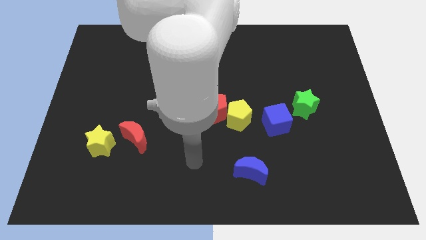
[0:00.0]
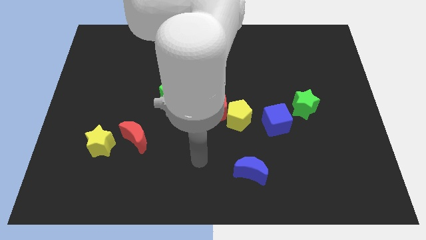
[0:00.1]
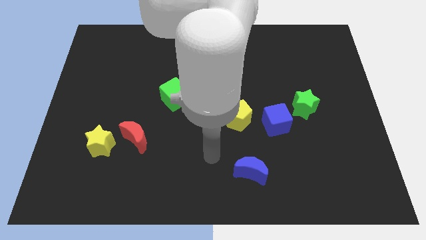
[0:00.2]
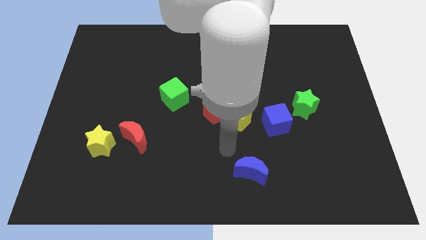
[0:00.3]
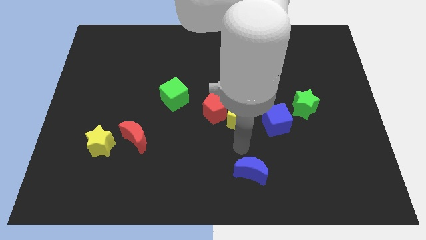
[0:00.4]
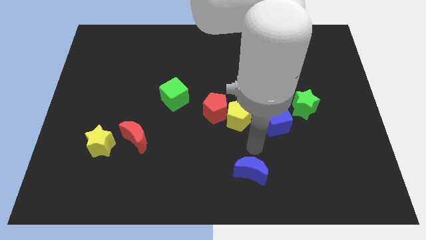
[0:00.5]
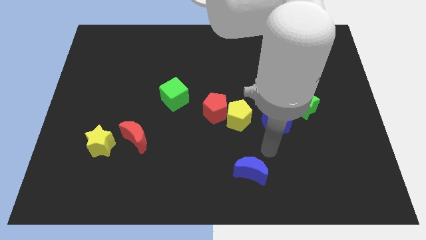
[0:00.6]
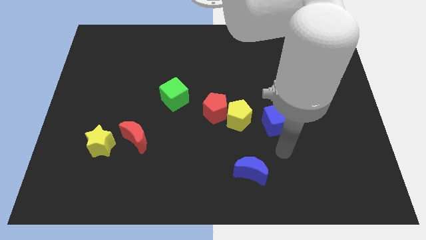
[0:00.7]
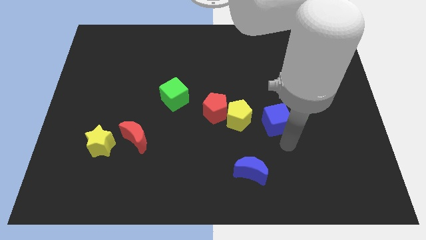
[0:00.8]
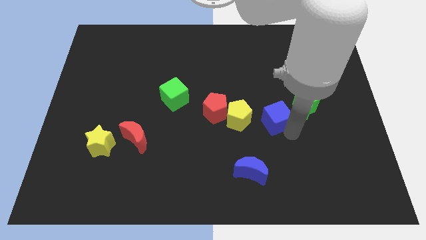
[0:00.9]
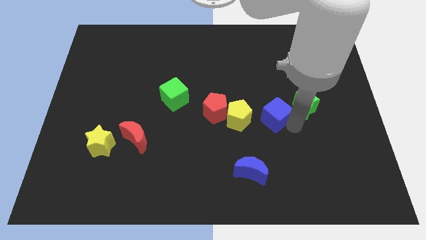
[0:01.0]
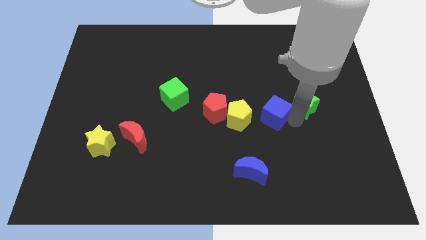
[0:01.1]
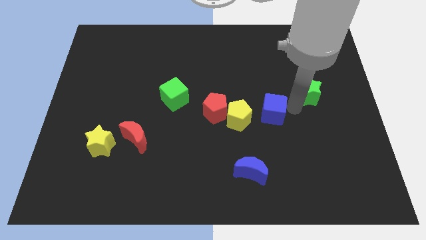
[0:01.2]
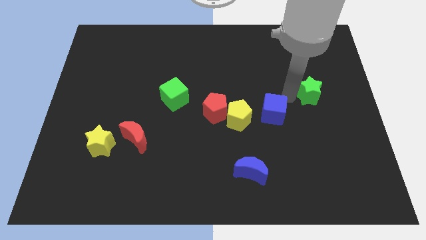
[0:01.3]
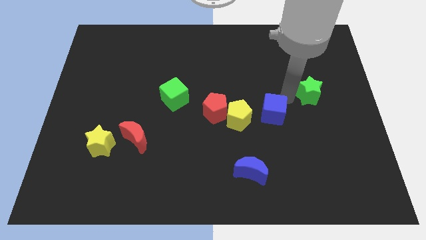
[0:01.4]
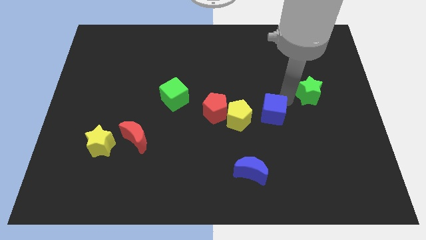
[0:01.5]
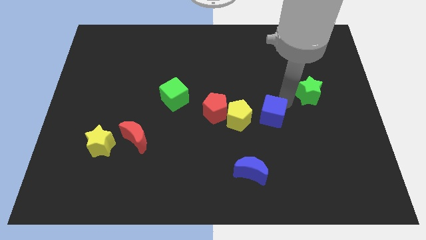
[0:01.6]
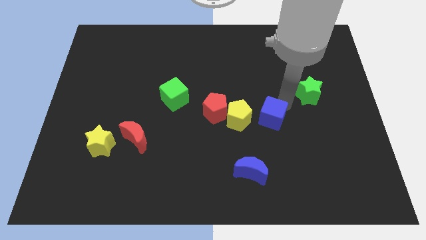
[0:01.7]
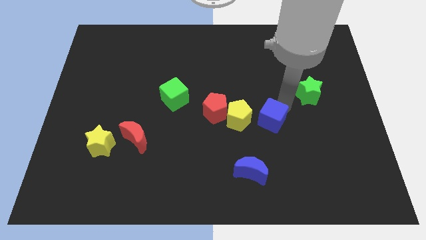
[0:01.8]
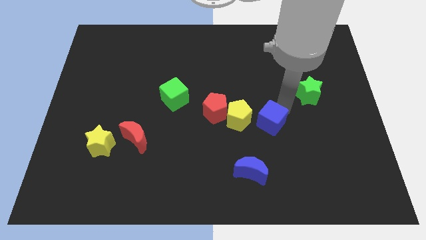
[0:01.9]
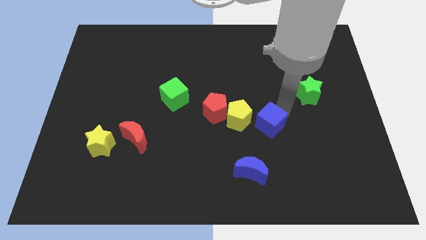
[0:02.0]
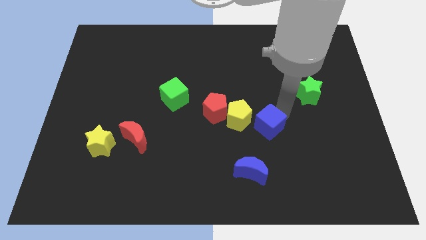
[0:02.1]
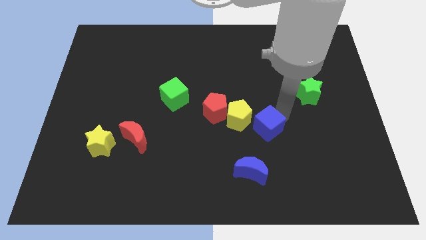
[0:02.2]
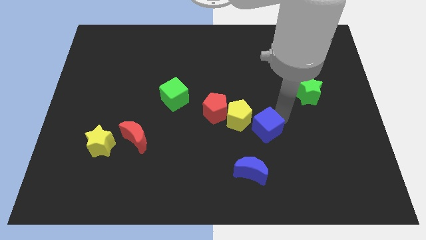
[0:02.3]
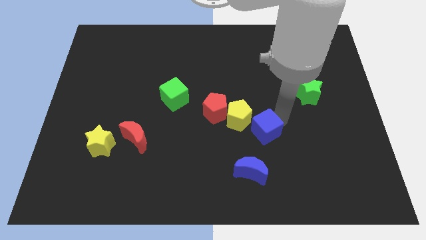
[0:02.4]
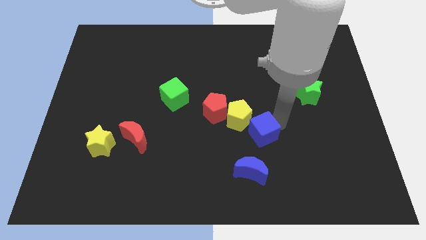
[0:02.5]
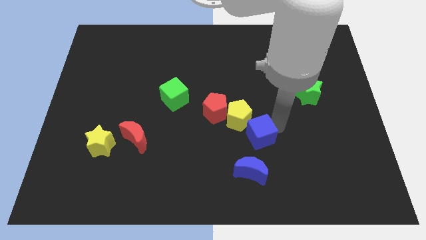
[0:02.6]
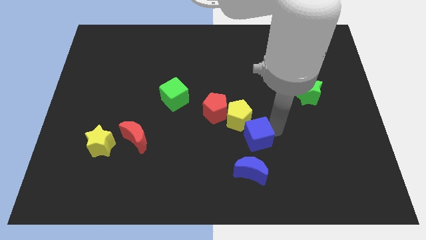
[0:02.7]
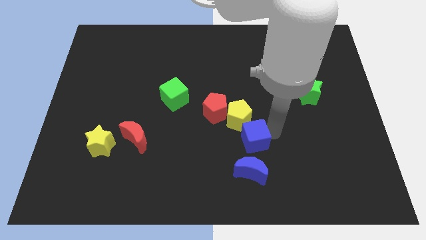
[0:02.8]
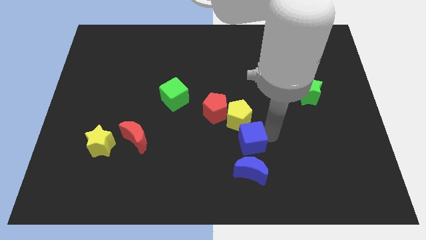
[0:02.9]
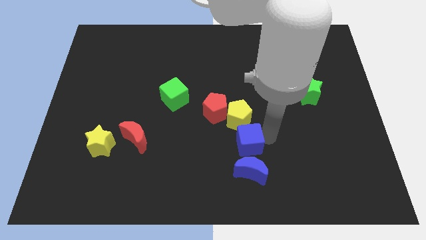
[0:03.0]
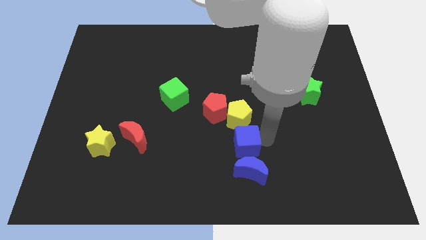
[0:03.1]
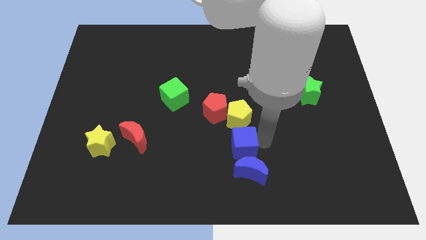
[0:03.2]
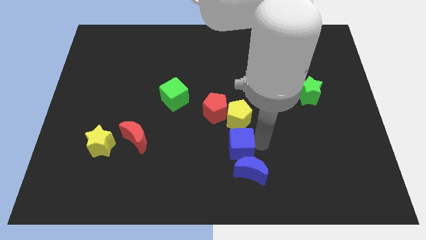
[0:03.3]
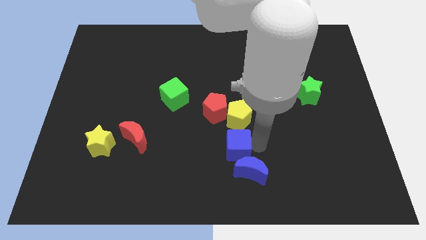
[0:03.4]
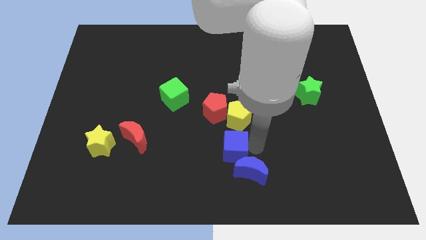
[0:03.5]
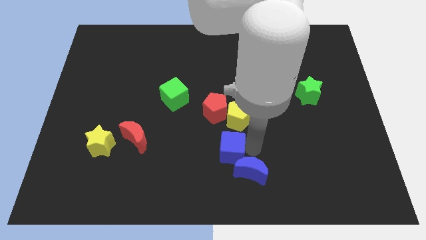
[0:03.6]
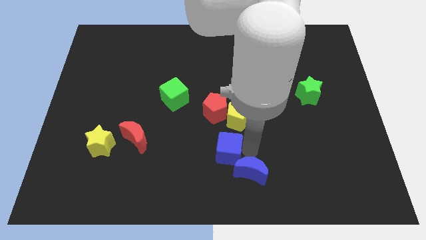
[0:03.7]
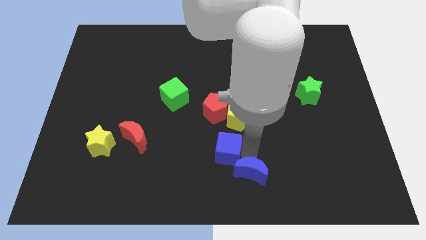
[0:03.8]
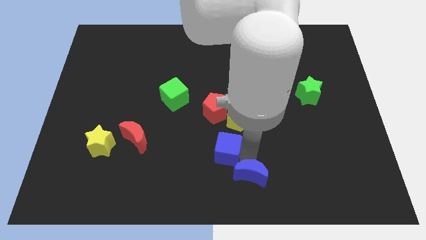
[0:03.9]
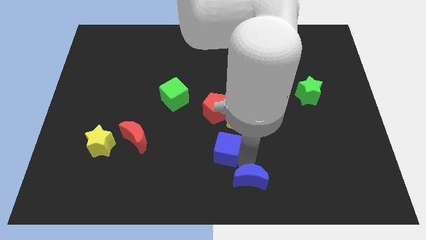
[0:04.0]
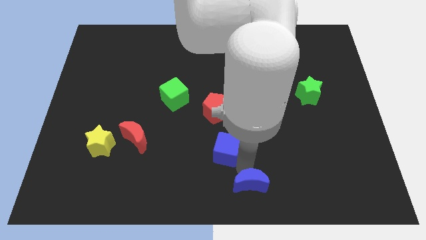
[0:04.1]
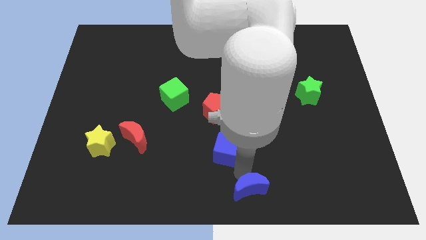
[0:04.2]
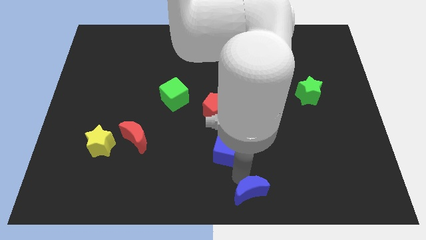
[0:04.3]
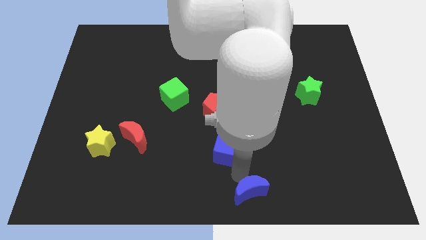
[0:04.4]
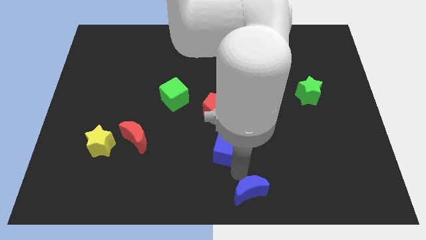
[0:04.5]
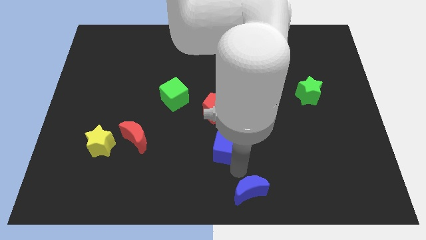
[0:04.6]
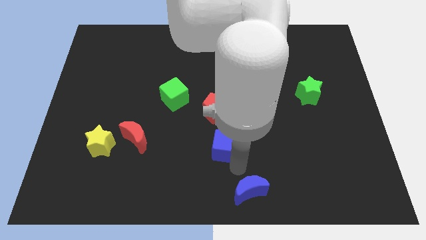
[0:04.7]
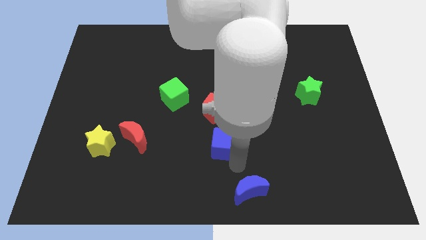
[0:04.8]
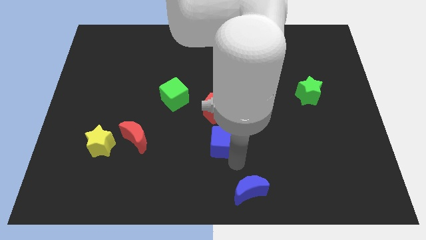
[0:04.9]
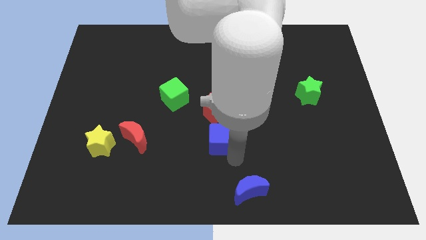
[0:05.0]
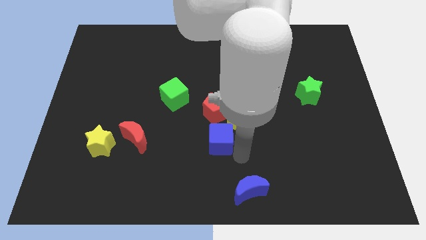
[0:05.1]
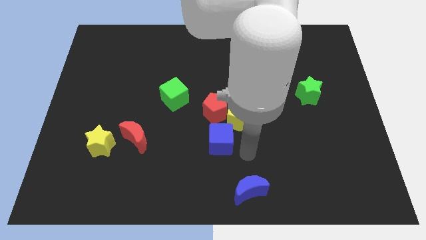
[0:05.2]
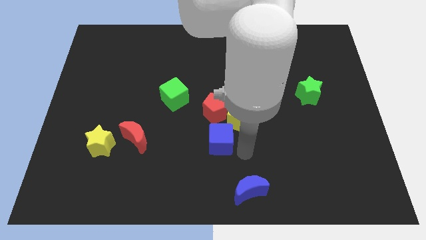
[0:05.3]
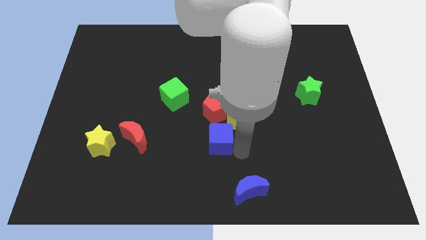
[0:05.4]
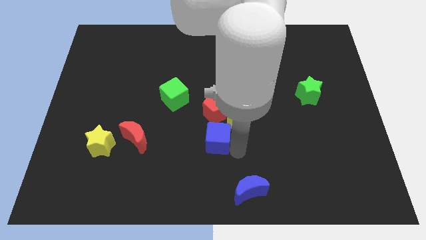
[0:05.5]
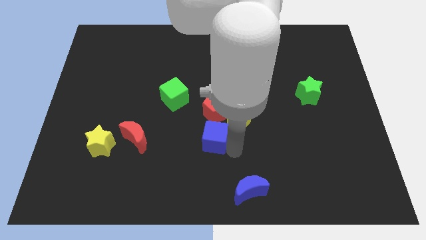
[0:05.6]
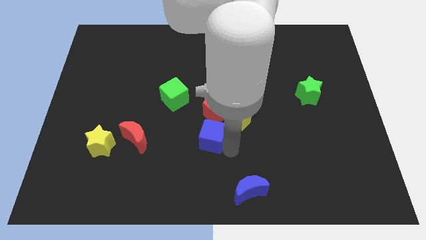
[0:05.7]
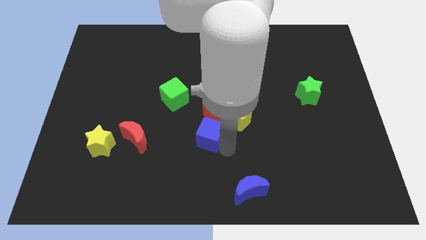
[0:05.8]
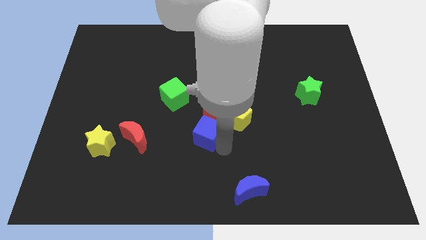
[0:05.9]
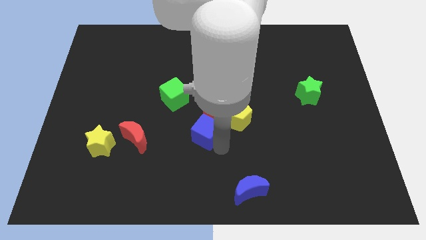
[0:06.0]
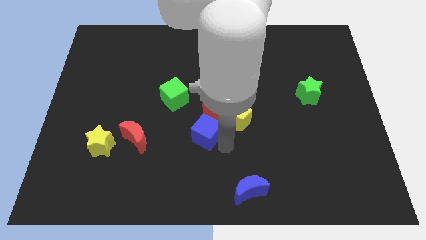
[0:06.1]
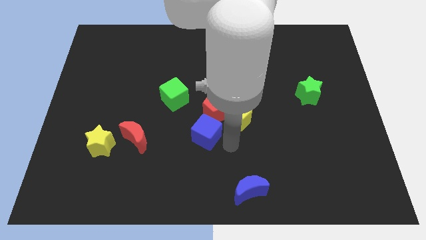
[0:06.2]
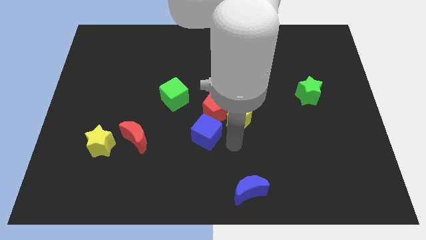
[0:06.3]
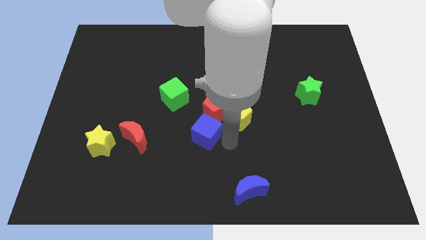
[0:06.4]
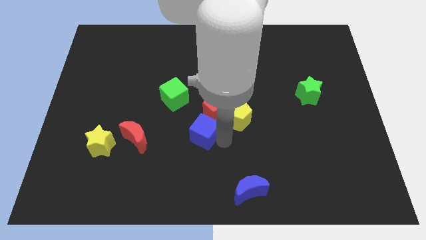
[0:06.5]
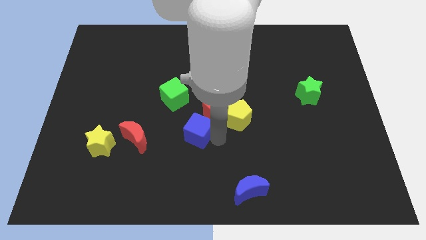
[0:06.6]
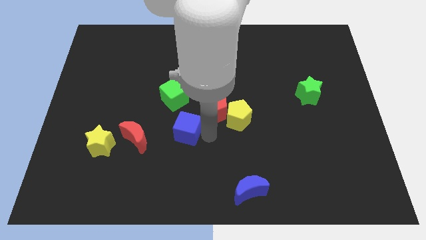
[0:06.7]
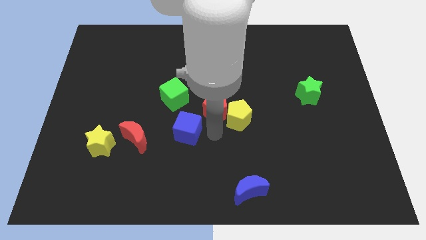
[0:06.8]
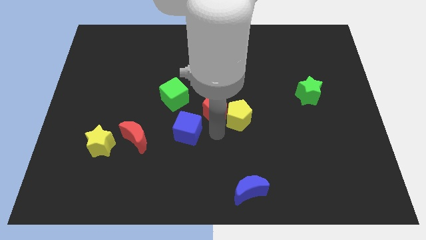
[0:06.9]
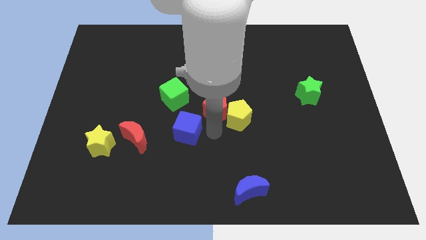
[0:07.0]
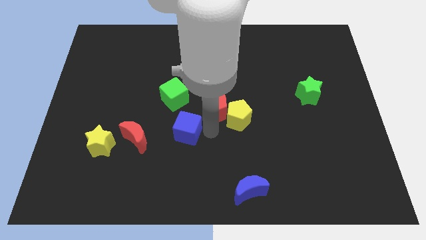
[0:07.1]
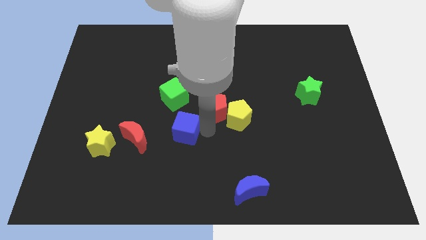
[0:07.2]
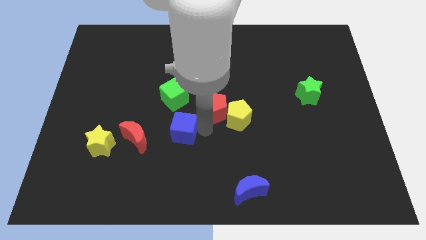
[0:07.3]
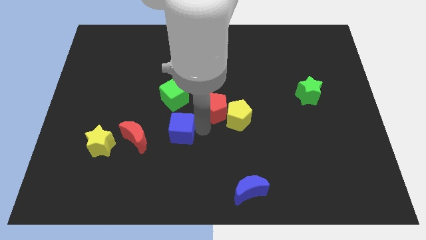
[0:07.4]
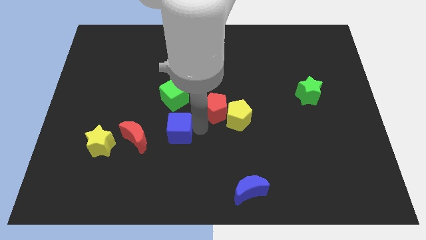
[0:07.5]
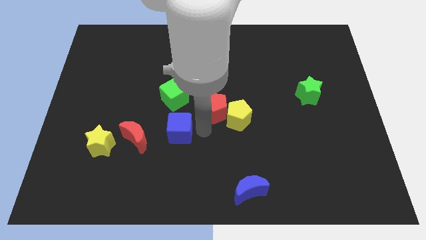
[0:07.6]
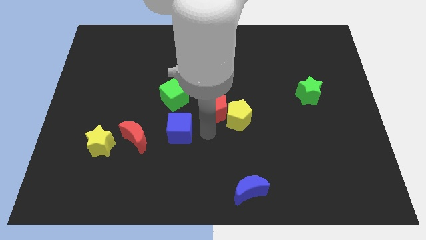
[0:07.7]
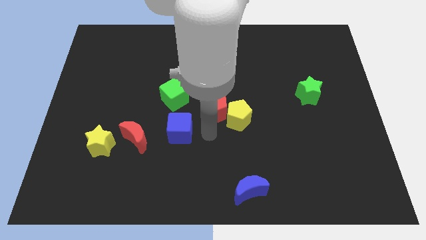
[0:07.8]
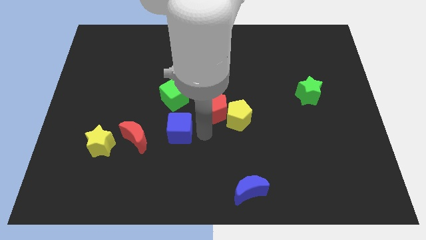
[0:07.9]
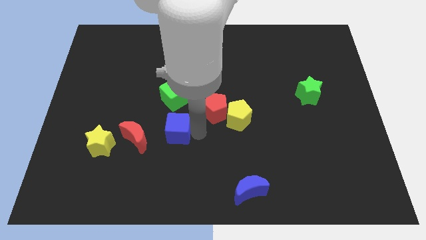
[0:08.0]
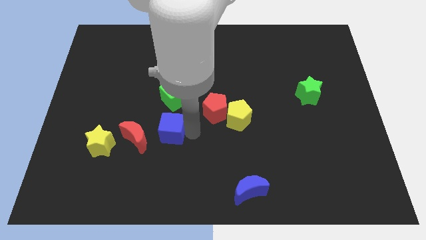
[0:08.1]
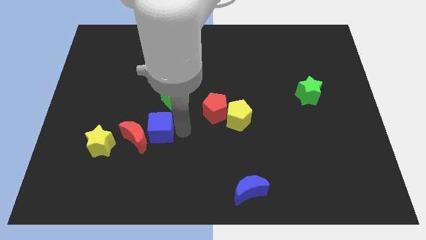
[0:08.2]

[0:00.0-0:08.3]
move the blue cube to the red moon
